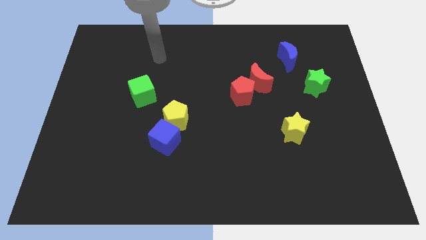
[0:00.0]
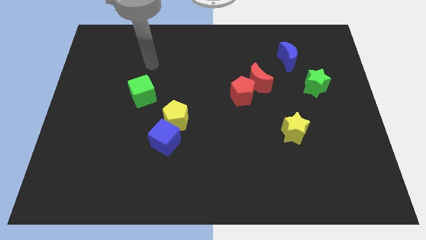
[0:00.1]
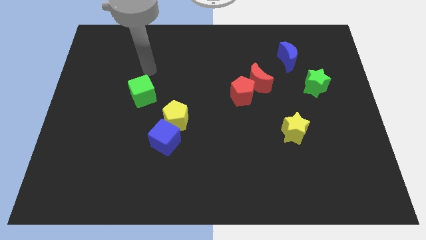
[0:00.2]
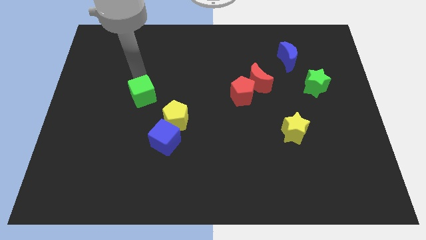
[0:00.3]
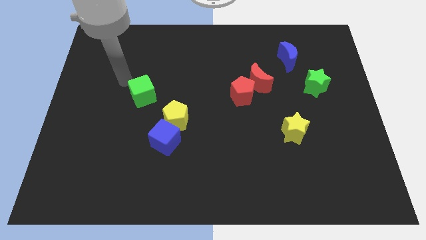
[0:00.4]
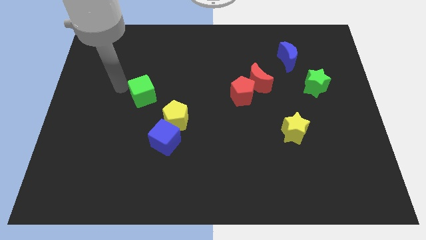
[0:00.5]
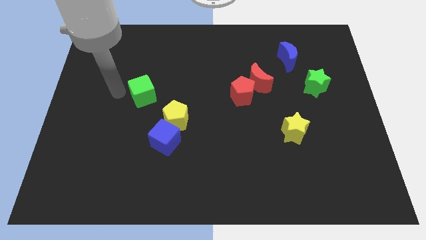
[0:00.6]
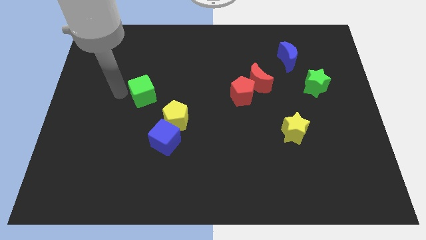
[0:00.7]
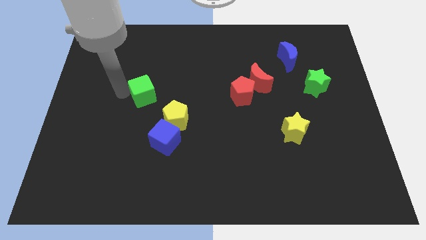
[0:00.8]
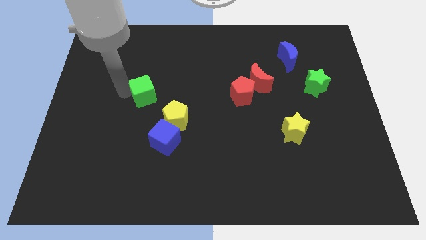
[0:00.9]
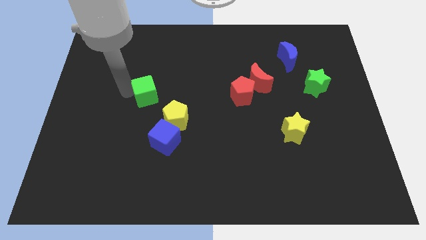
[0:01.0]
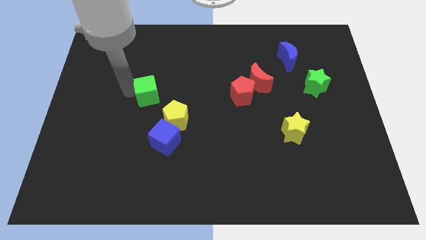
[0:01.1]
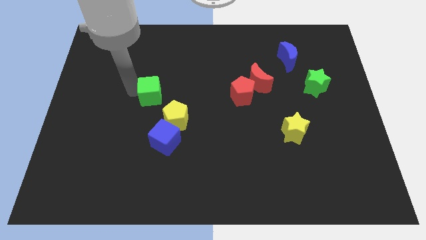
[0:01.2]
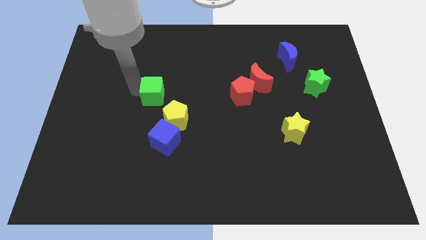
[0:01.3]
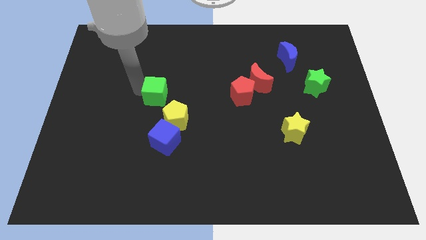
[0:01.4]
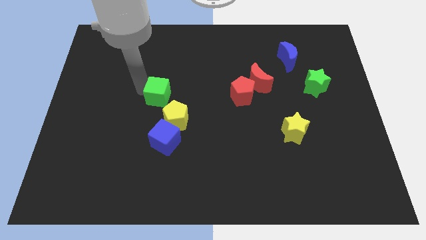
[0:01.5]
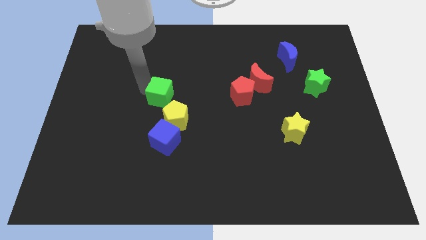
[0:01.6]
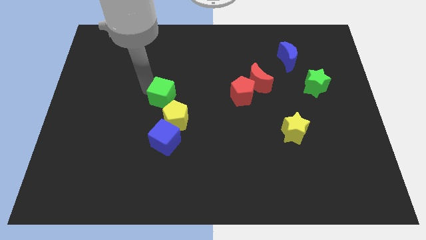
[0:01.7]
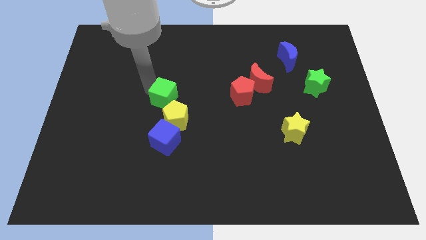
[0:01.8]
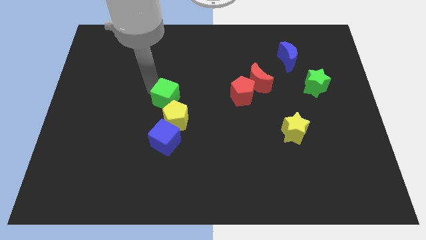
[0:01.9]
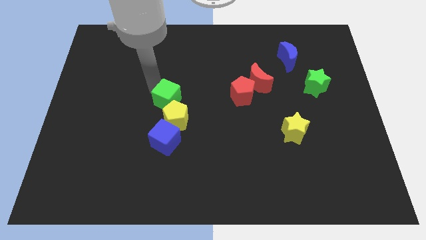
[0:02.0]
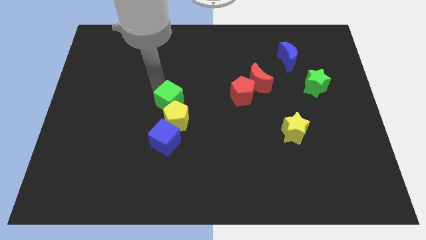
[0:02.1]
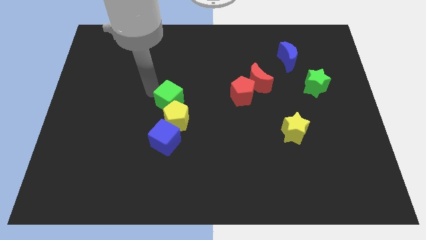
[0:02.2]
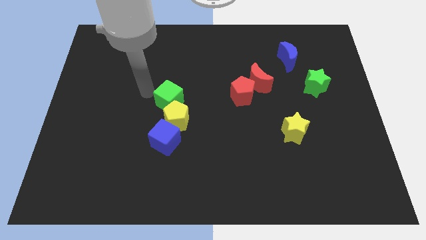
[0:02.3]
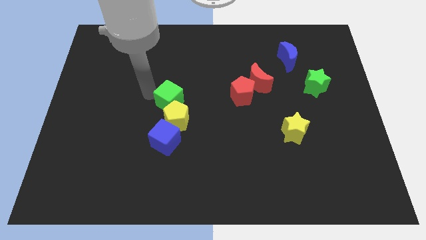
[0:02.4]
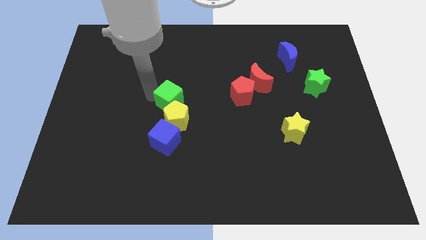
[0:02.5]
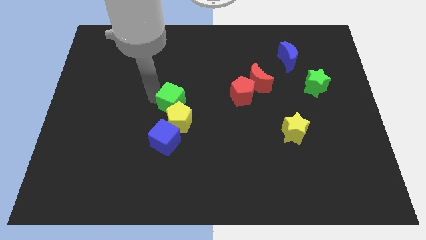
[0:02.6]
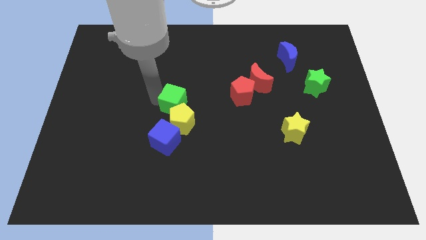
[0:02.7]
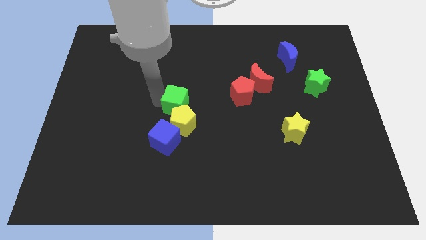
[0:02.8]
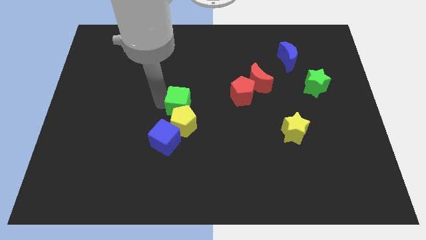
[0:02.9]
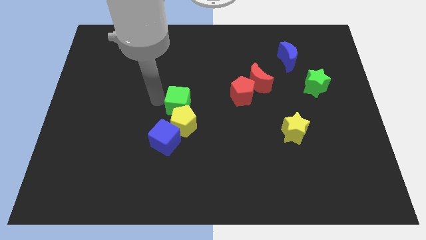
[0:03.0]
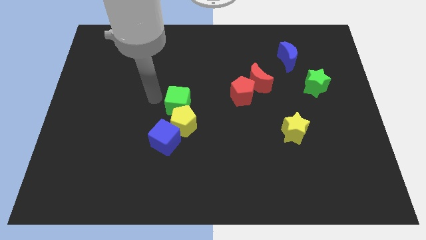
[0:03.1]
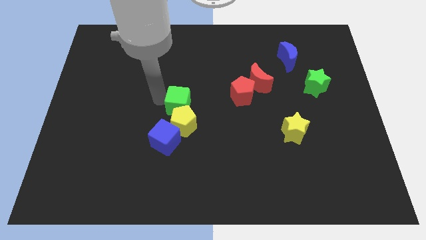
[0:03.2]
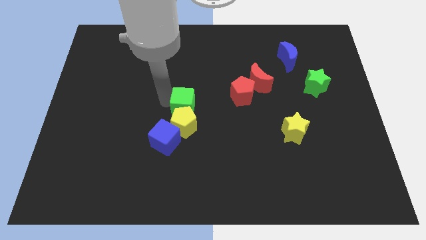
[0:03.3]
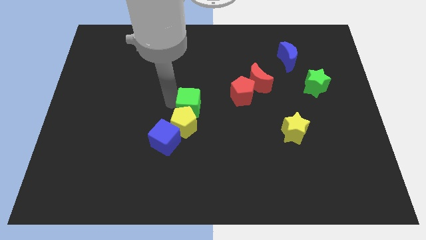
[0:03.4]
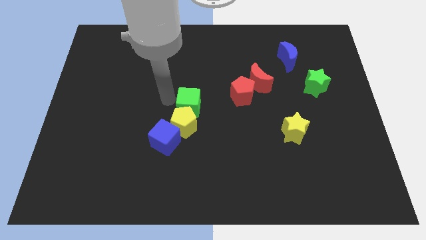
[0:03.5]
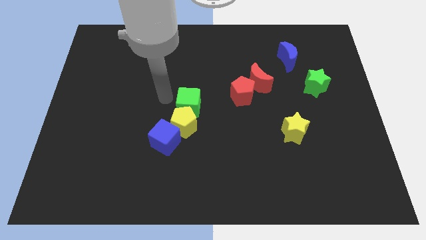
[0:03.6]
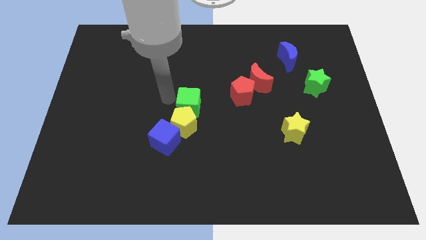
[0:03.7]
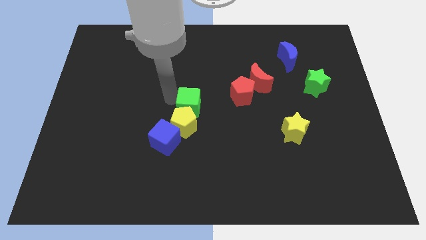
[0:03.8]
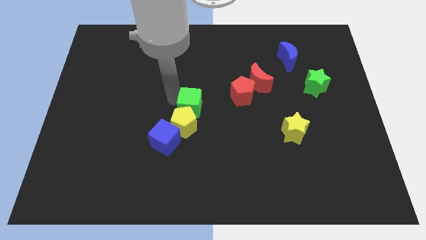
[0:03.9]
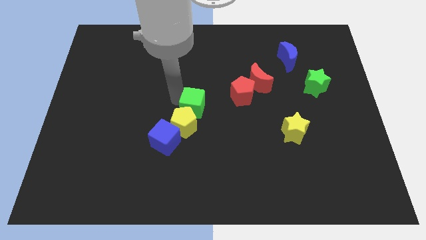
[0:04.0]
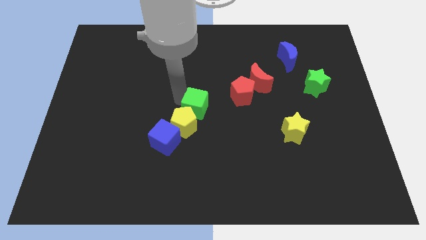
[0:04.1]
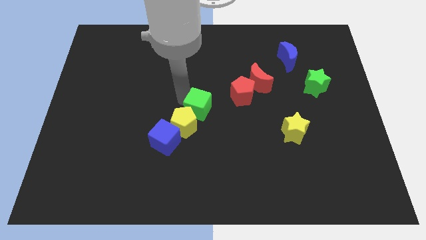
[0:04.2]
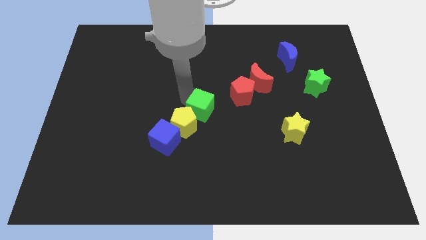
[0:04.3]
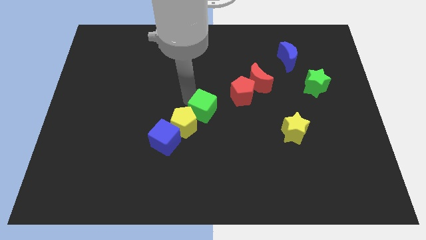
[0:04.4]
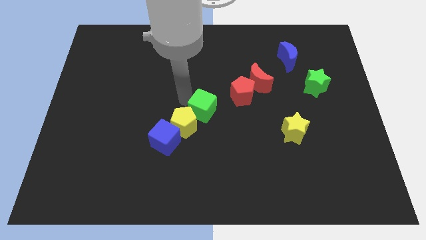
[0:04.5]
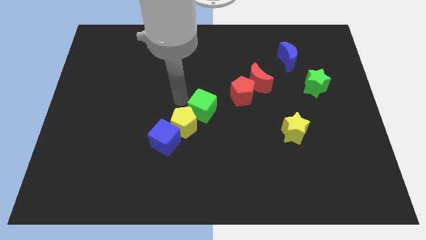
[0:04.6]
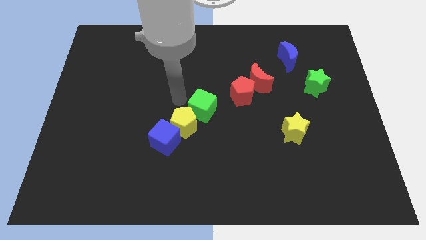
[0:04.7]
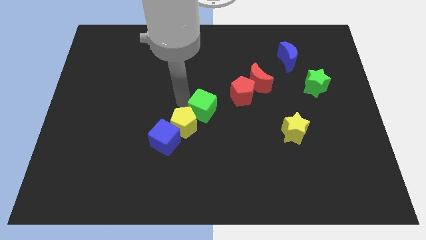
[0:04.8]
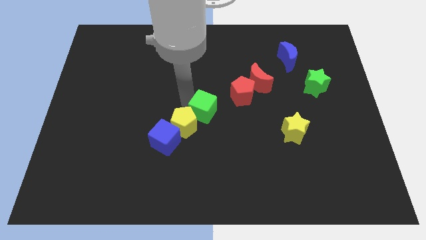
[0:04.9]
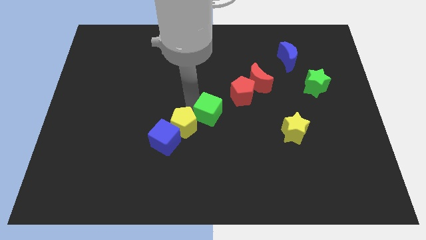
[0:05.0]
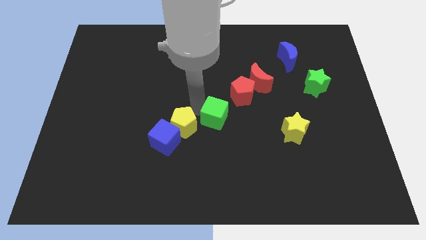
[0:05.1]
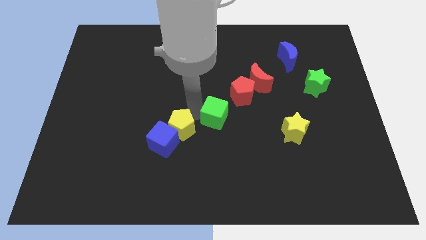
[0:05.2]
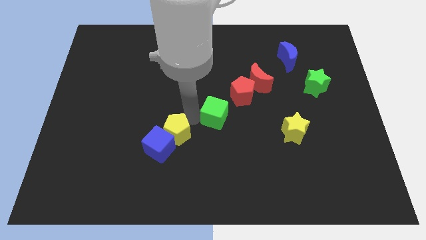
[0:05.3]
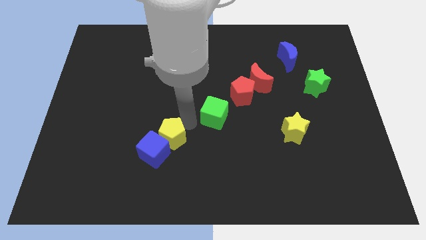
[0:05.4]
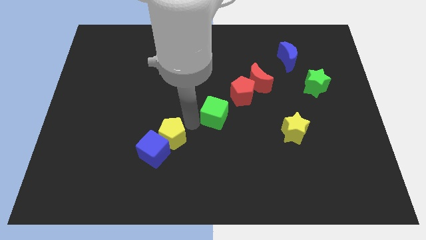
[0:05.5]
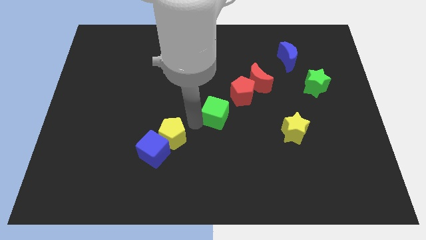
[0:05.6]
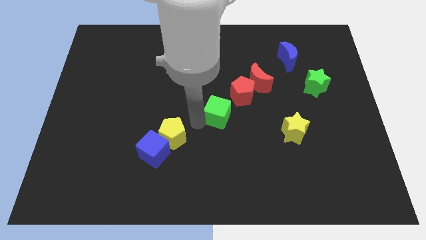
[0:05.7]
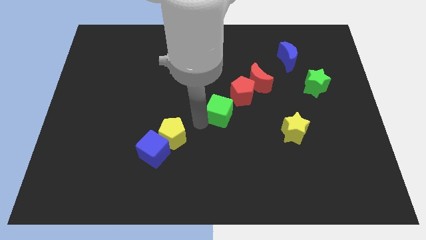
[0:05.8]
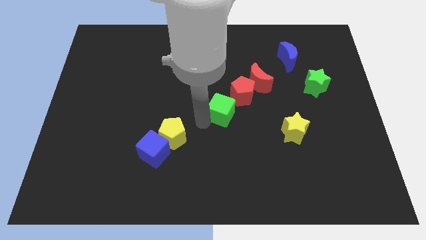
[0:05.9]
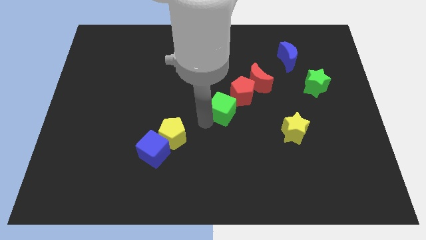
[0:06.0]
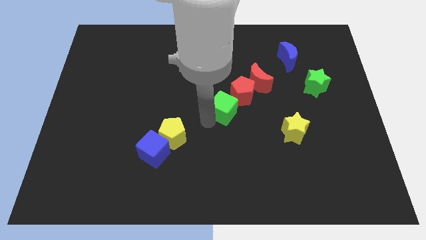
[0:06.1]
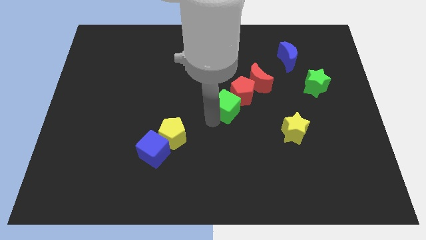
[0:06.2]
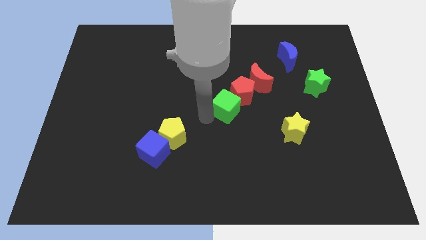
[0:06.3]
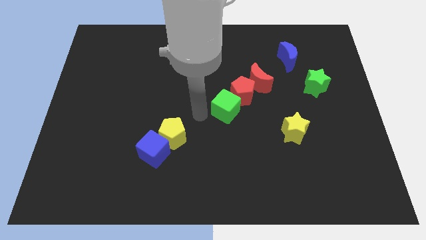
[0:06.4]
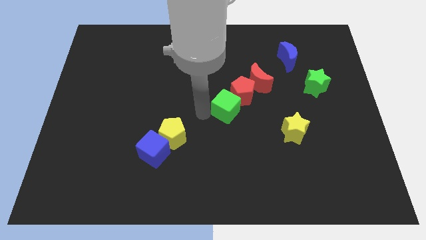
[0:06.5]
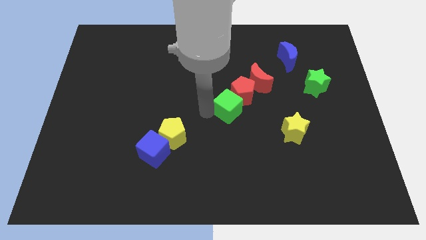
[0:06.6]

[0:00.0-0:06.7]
move the green cube right

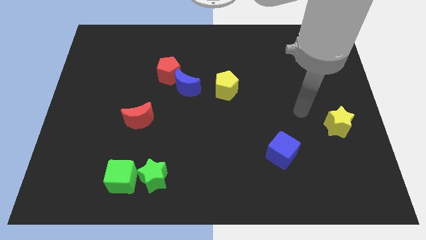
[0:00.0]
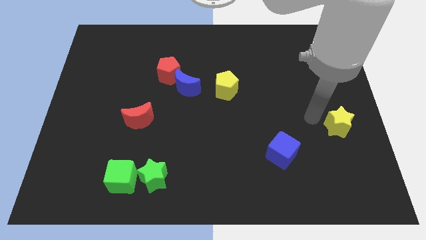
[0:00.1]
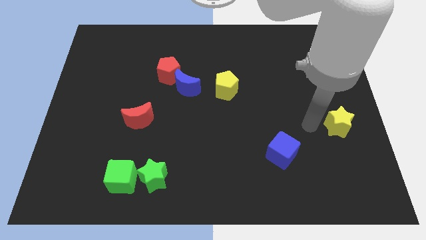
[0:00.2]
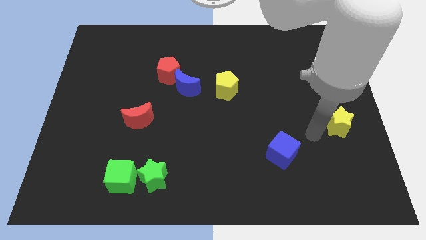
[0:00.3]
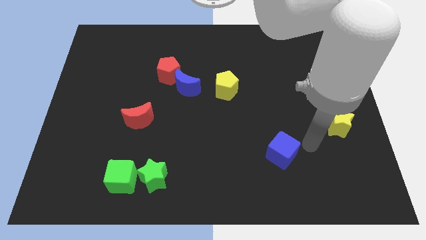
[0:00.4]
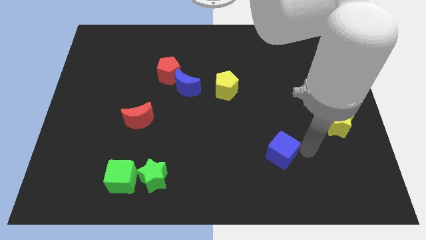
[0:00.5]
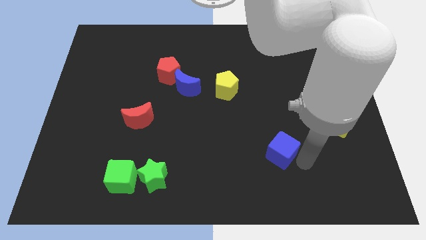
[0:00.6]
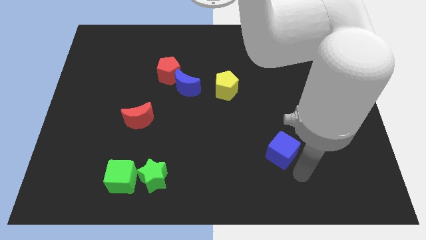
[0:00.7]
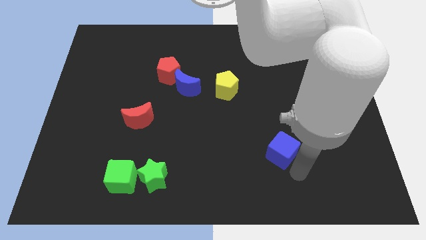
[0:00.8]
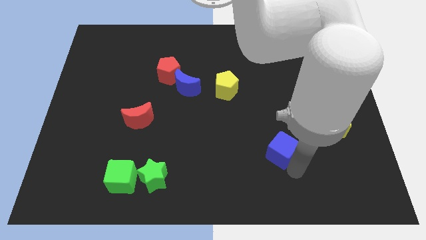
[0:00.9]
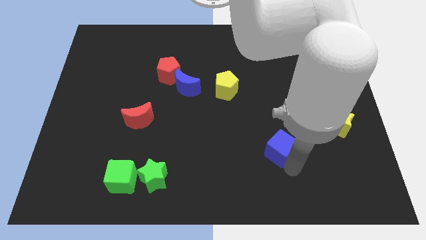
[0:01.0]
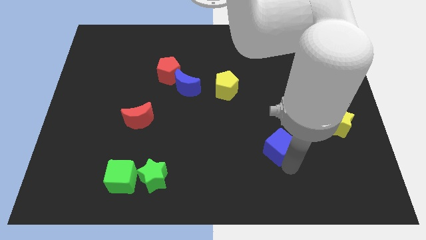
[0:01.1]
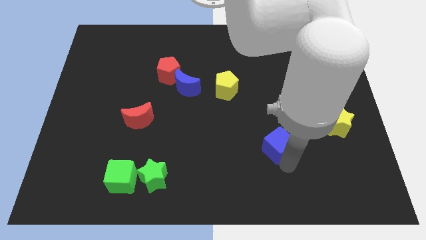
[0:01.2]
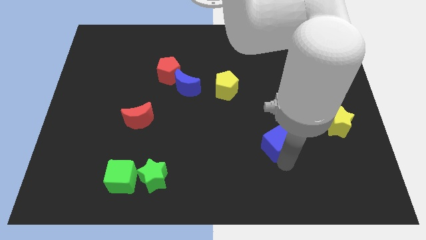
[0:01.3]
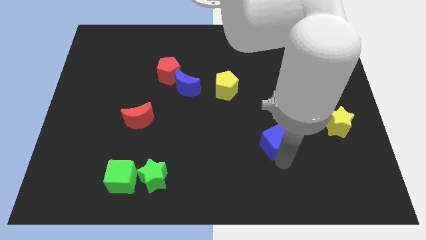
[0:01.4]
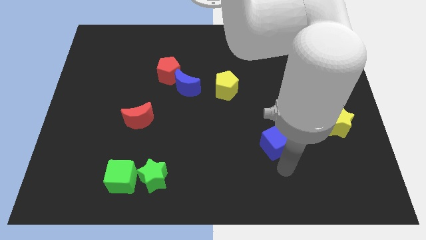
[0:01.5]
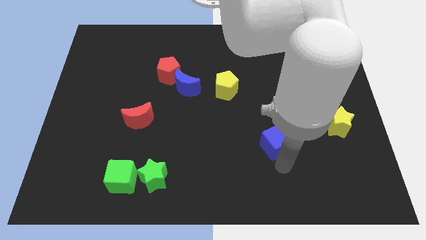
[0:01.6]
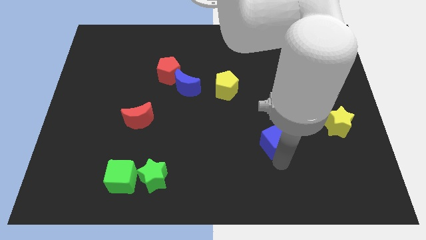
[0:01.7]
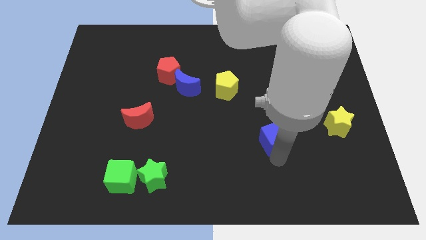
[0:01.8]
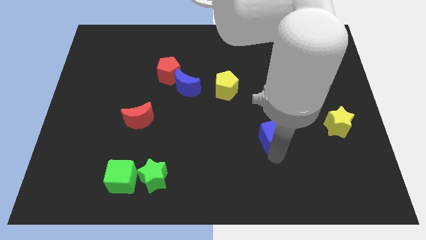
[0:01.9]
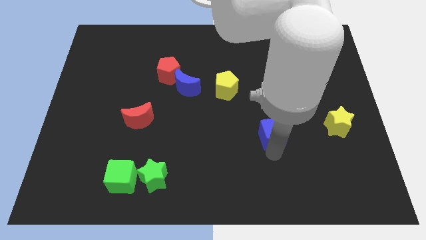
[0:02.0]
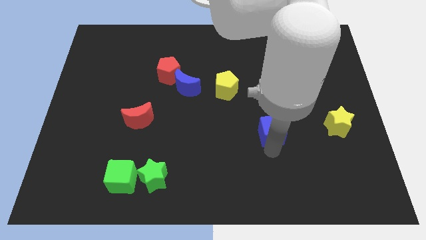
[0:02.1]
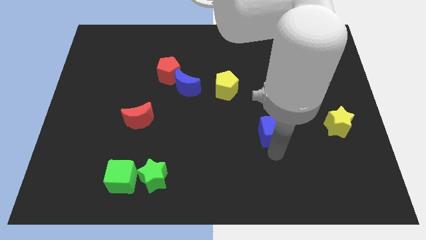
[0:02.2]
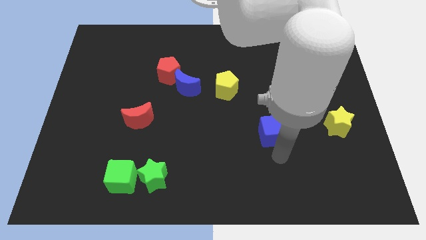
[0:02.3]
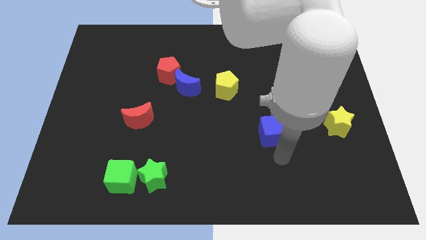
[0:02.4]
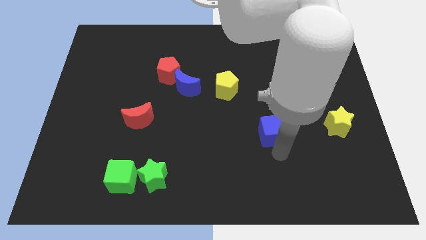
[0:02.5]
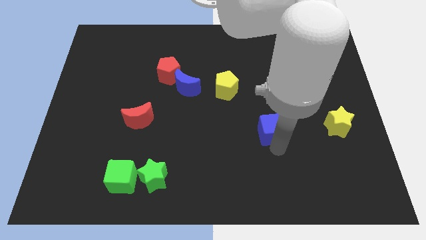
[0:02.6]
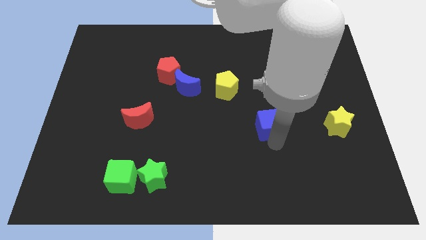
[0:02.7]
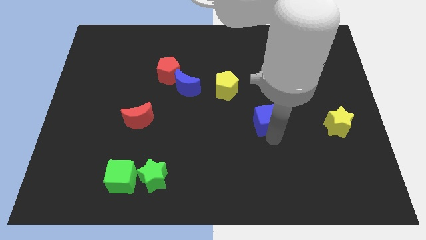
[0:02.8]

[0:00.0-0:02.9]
slightly push the blue cube up
